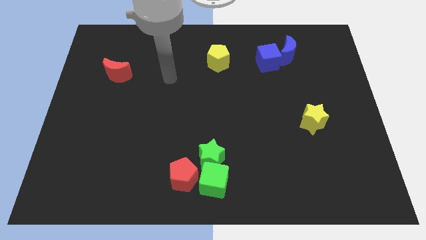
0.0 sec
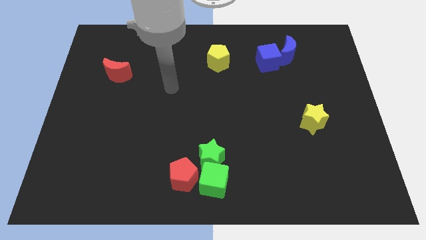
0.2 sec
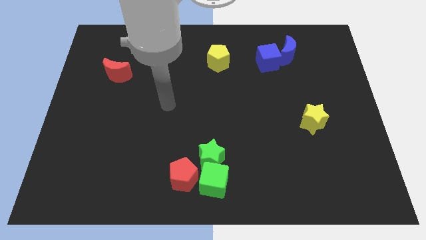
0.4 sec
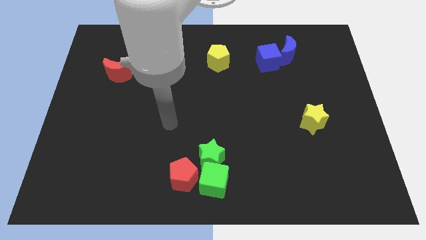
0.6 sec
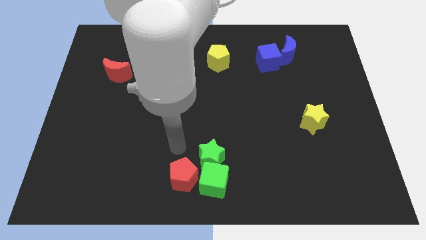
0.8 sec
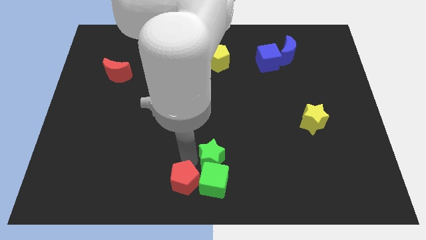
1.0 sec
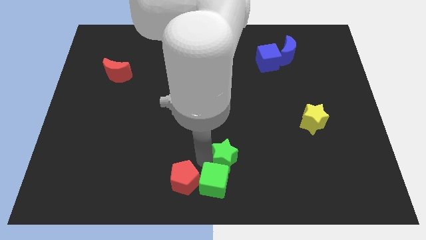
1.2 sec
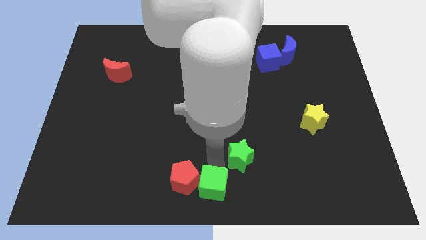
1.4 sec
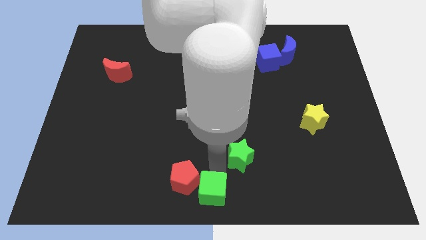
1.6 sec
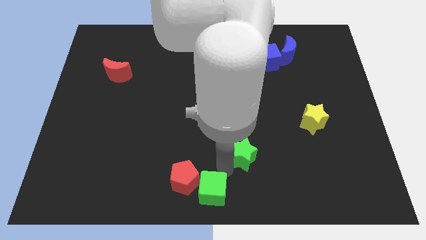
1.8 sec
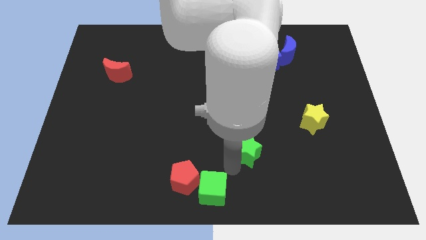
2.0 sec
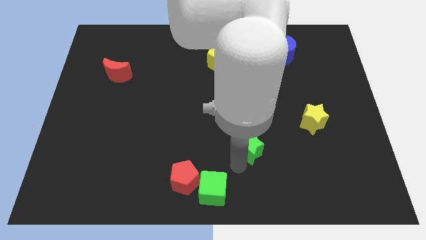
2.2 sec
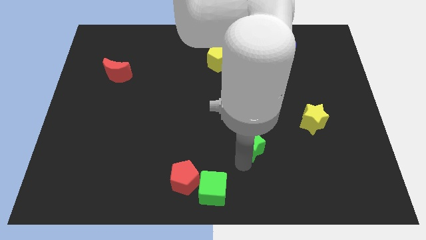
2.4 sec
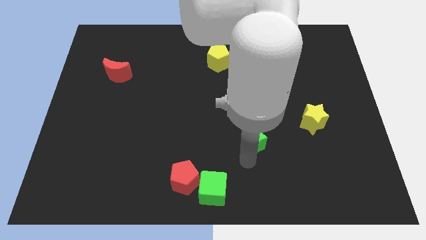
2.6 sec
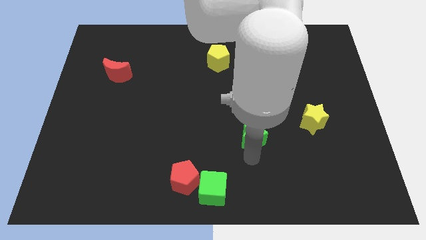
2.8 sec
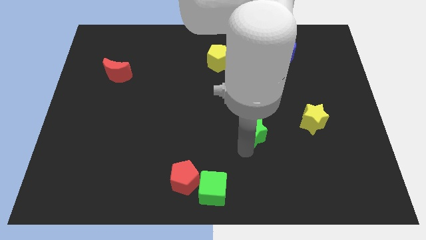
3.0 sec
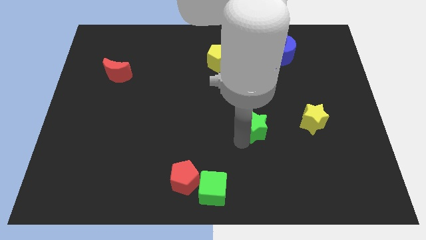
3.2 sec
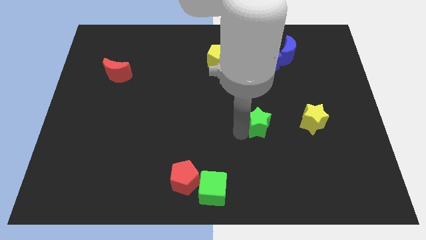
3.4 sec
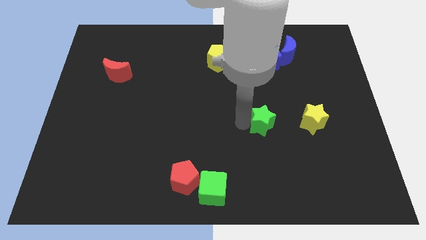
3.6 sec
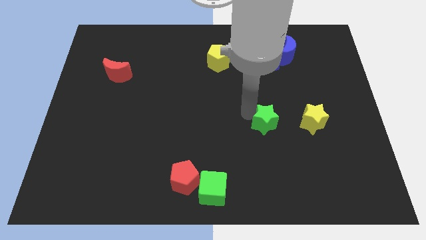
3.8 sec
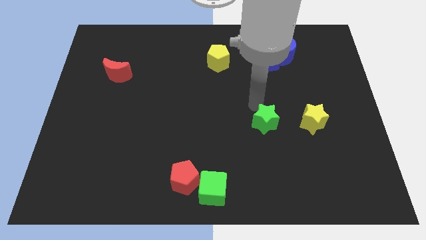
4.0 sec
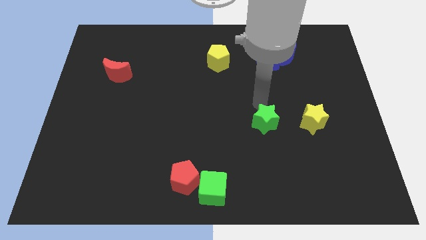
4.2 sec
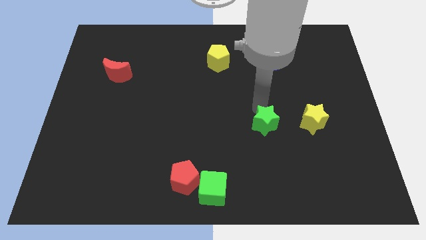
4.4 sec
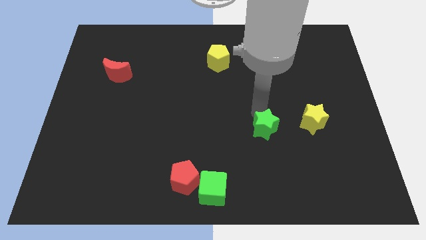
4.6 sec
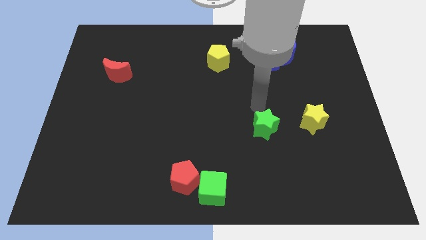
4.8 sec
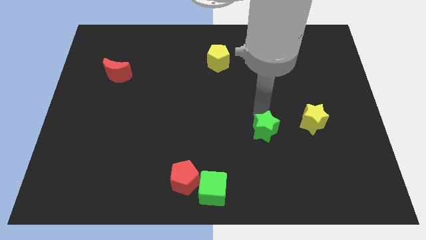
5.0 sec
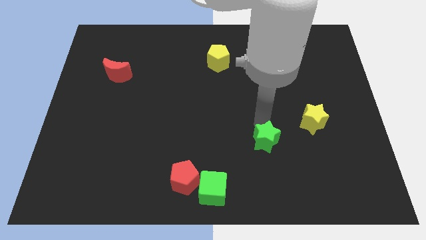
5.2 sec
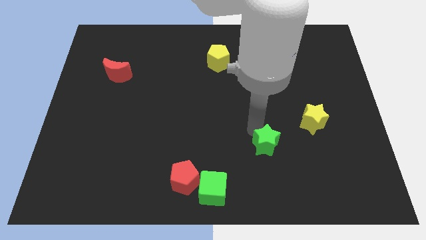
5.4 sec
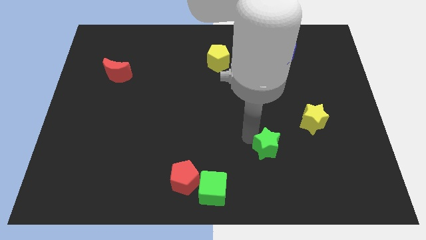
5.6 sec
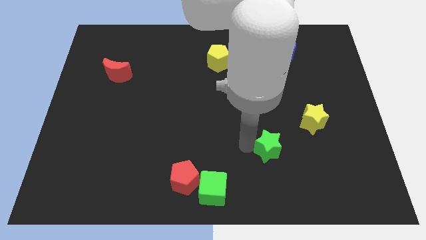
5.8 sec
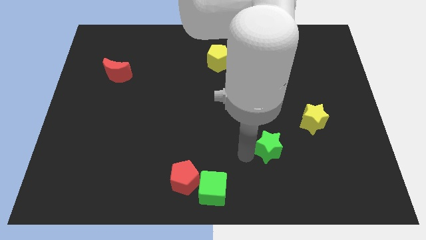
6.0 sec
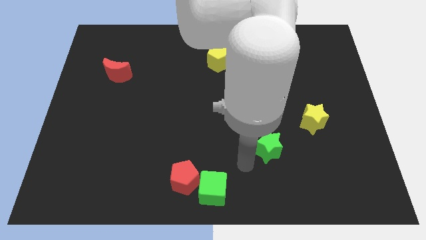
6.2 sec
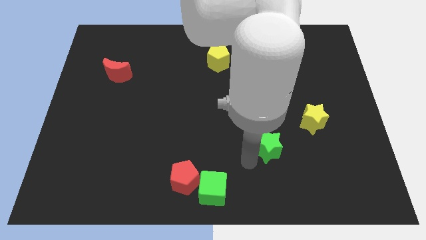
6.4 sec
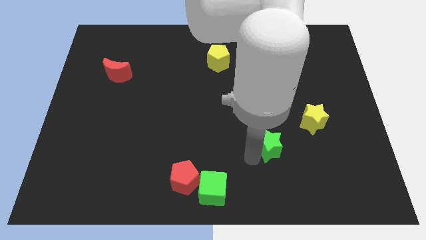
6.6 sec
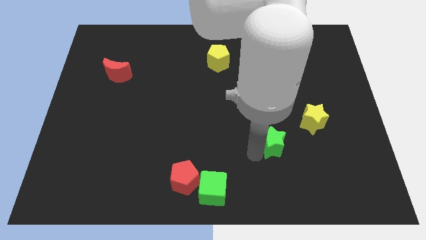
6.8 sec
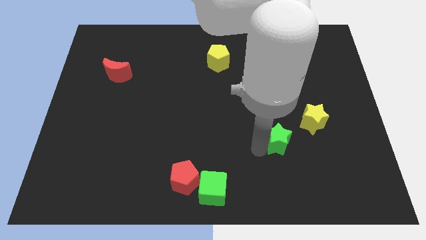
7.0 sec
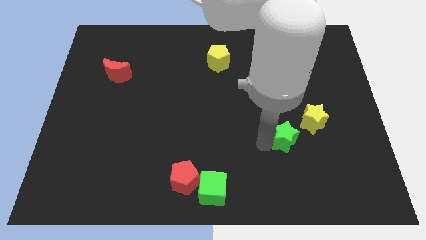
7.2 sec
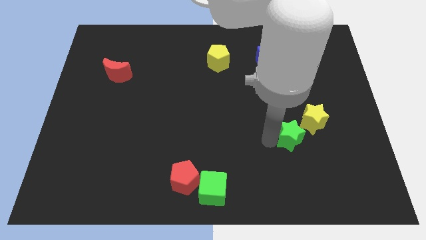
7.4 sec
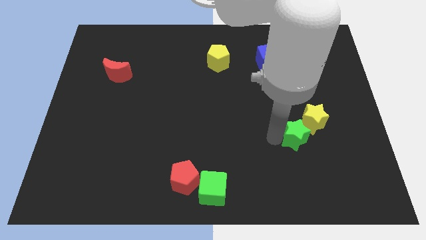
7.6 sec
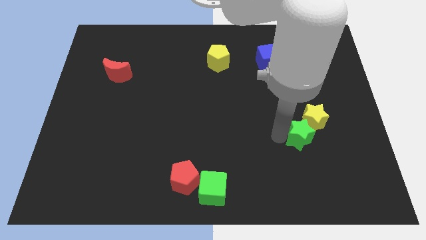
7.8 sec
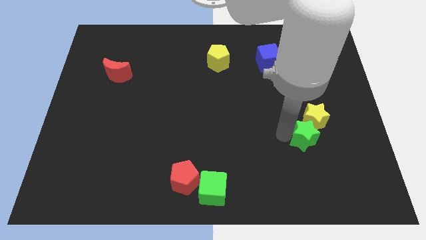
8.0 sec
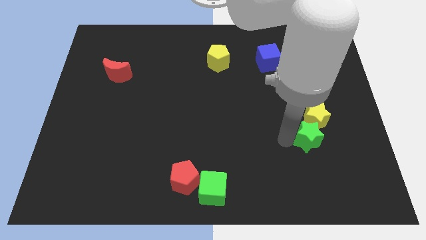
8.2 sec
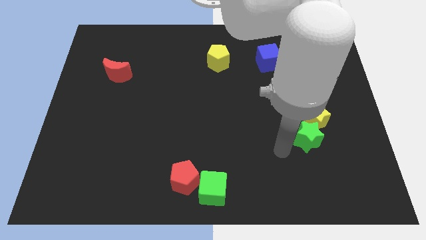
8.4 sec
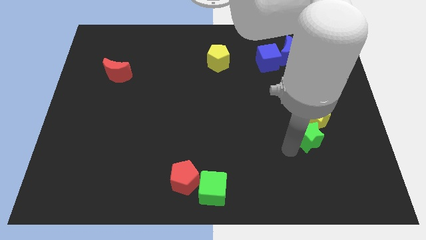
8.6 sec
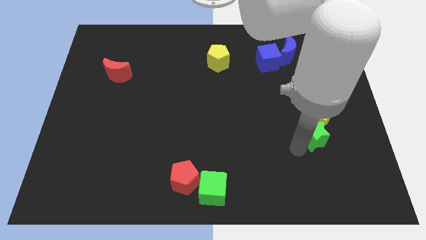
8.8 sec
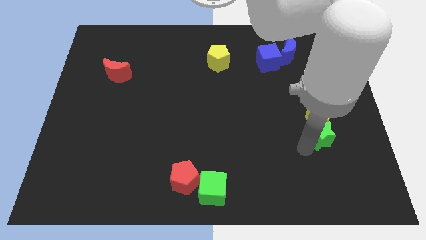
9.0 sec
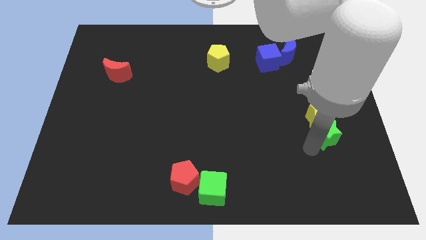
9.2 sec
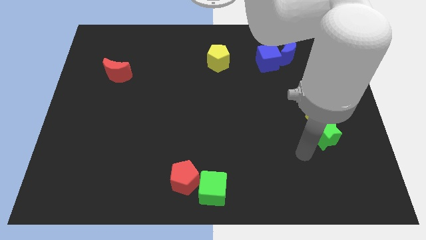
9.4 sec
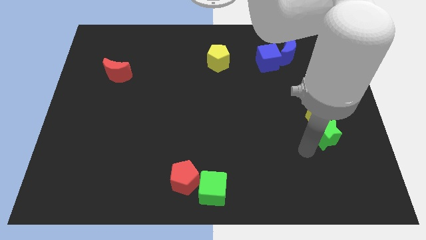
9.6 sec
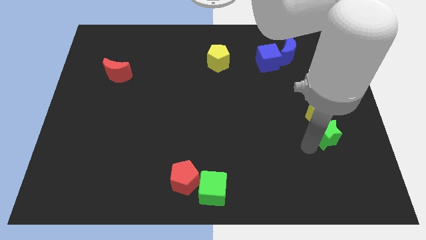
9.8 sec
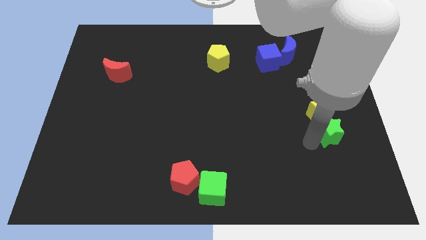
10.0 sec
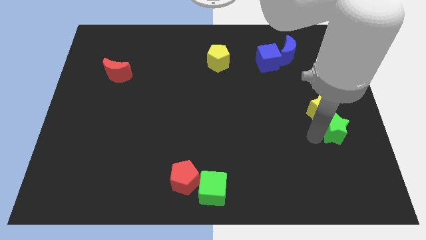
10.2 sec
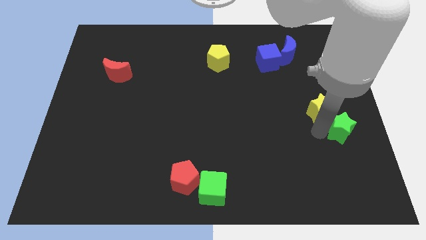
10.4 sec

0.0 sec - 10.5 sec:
put the green star to the right side

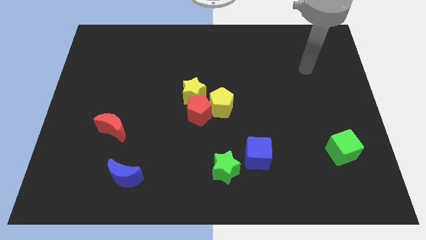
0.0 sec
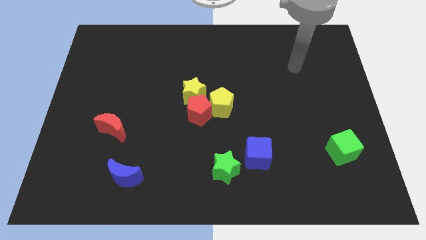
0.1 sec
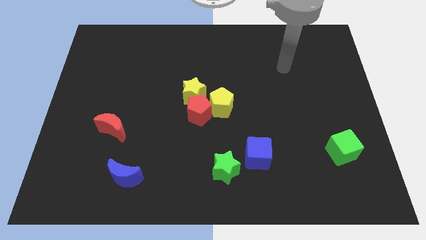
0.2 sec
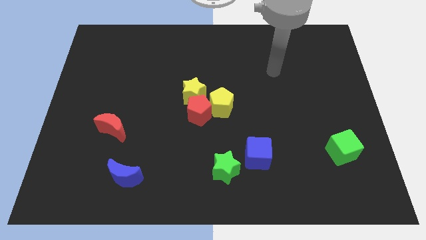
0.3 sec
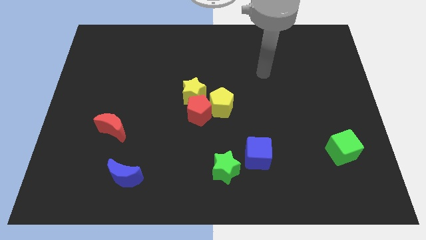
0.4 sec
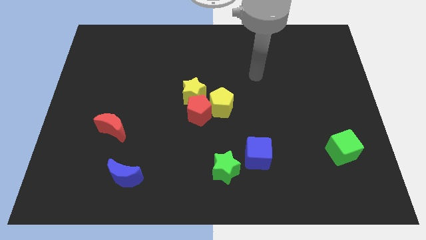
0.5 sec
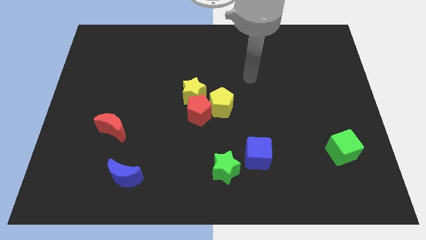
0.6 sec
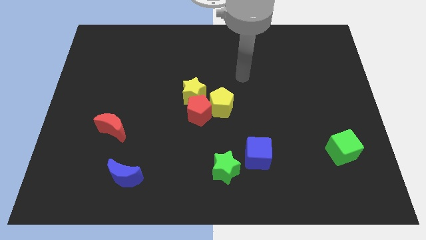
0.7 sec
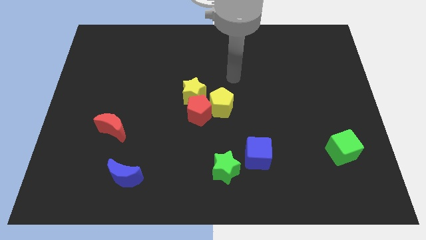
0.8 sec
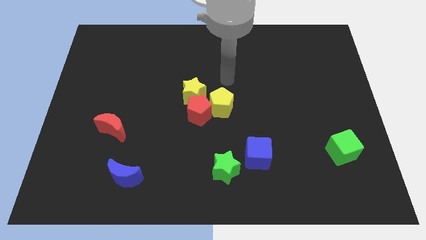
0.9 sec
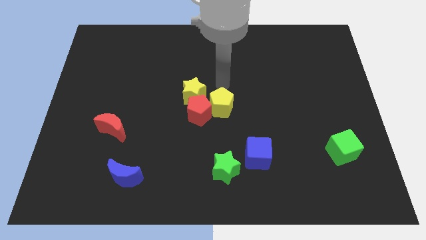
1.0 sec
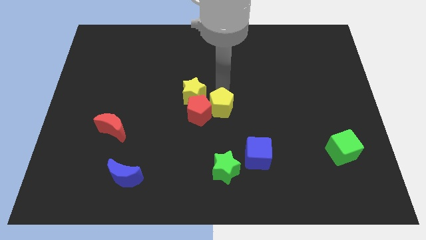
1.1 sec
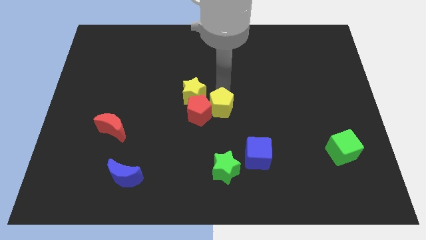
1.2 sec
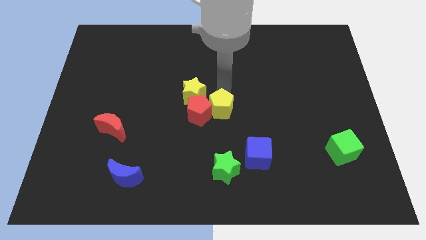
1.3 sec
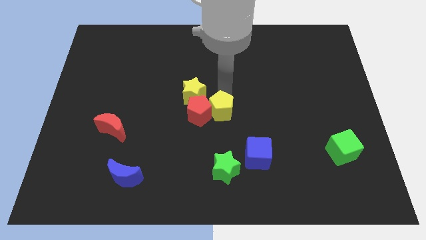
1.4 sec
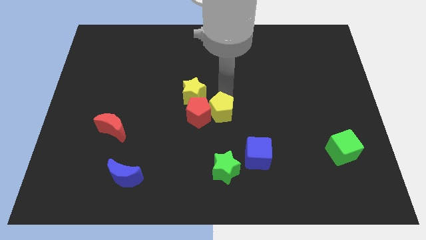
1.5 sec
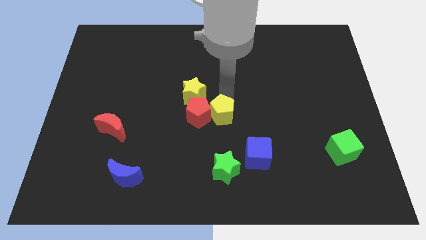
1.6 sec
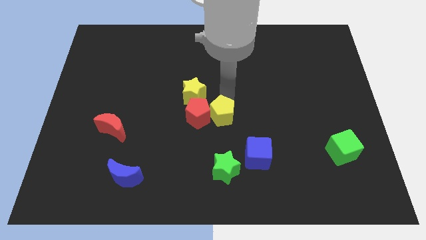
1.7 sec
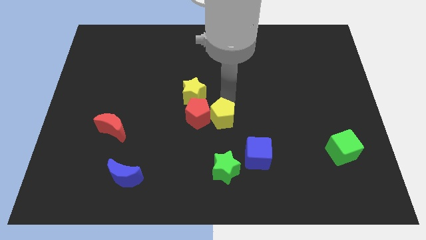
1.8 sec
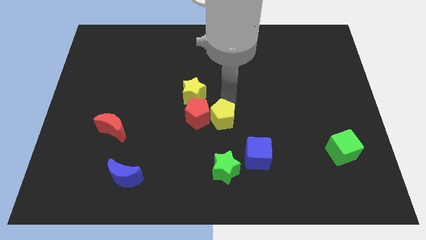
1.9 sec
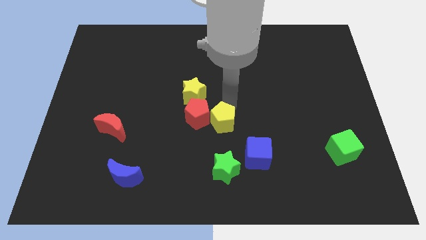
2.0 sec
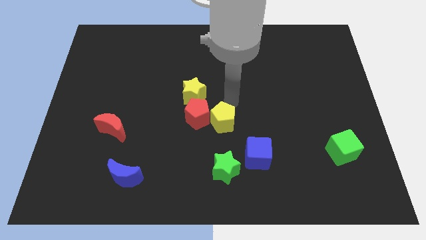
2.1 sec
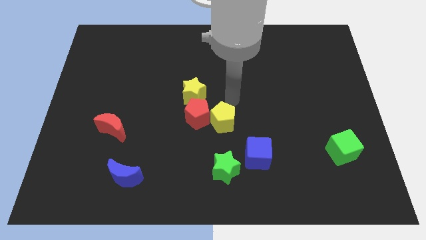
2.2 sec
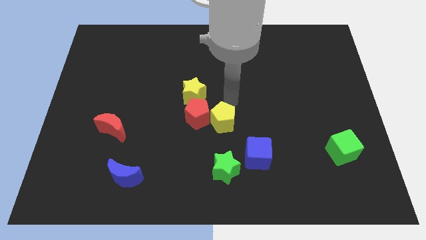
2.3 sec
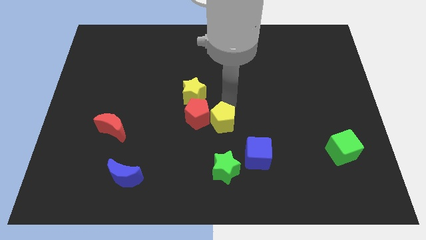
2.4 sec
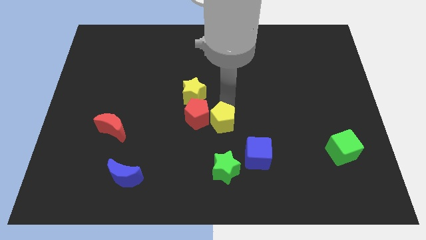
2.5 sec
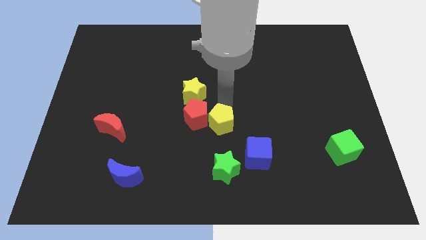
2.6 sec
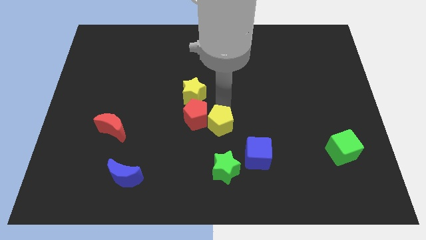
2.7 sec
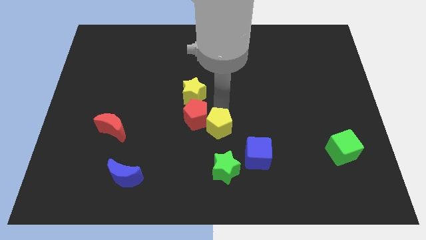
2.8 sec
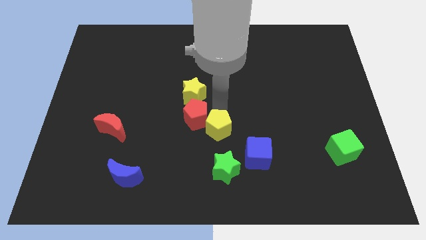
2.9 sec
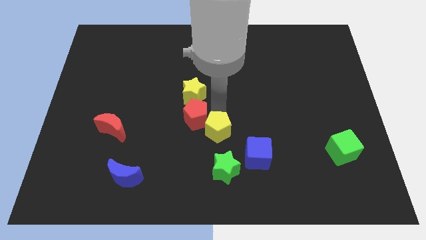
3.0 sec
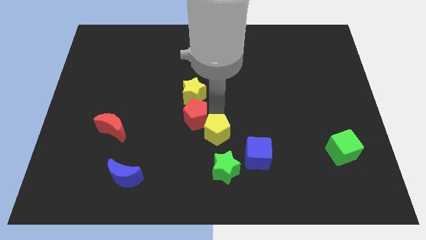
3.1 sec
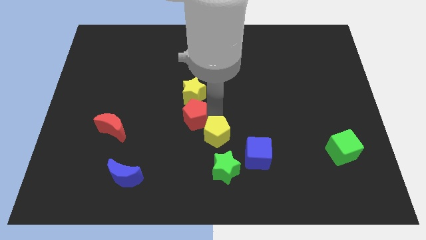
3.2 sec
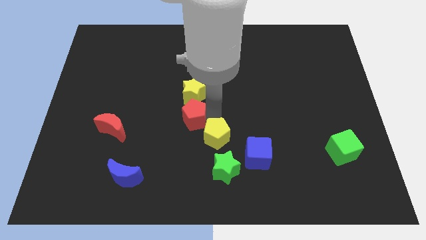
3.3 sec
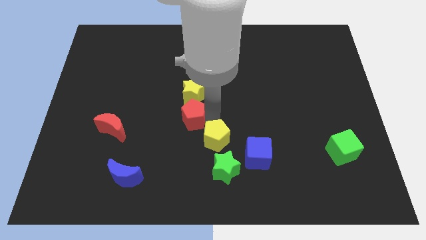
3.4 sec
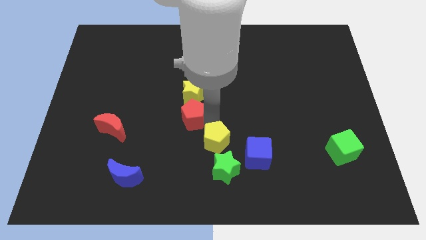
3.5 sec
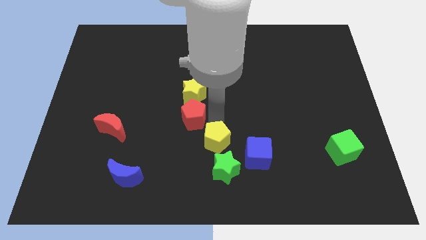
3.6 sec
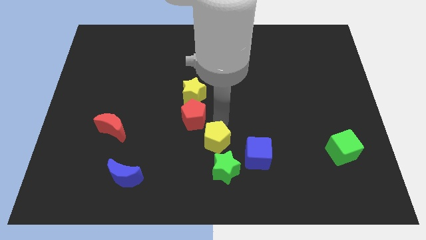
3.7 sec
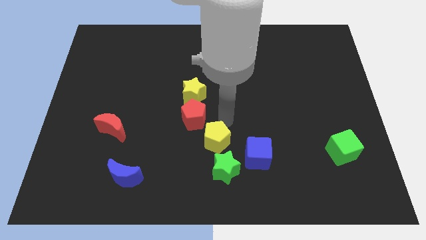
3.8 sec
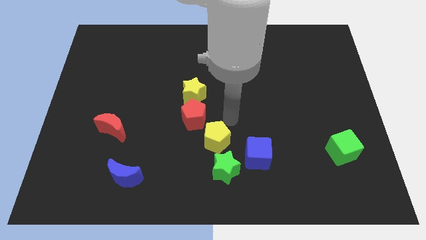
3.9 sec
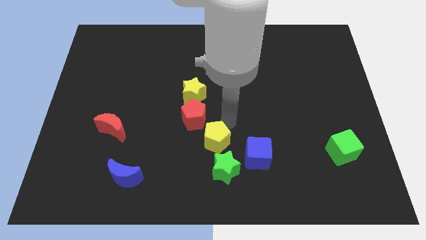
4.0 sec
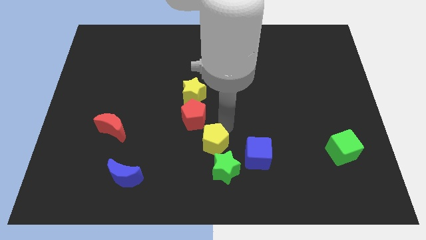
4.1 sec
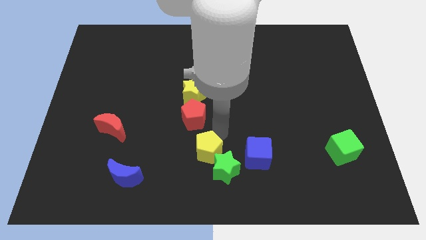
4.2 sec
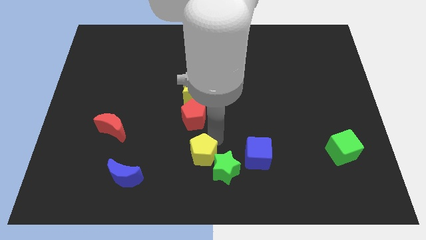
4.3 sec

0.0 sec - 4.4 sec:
push the yellow pentagon to the bottom
